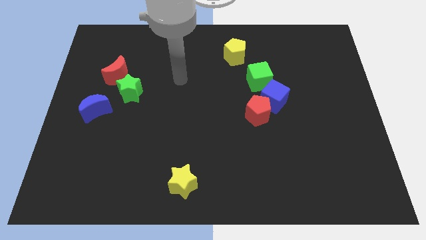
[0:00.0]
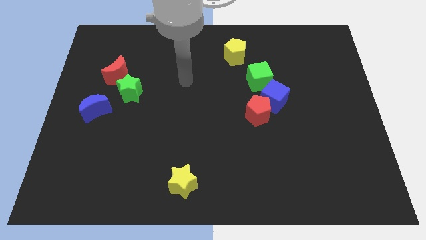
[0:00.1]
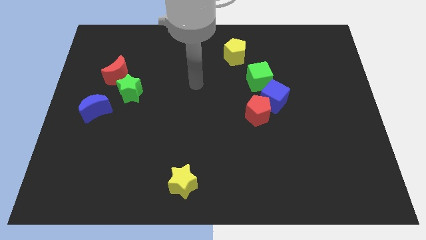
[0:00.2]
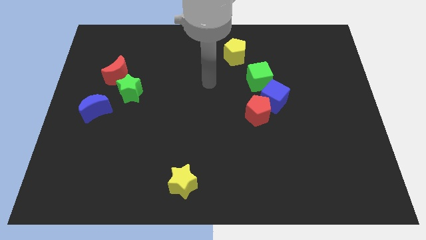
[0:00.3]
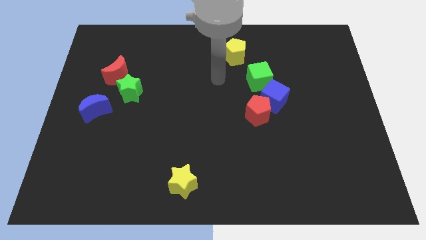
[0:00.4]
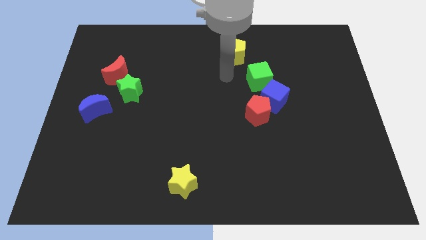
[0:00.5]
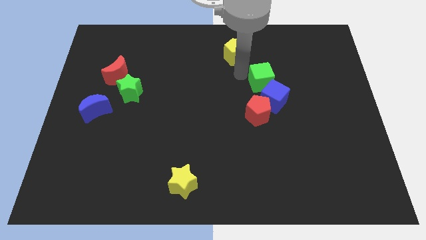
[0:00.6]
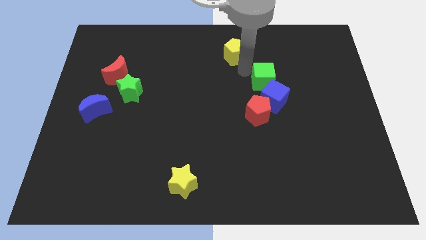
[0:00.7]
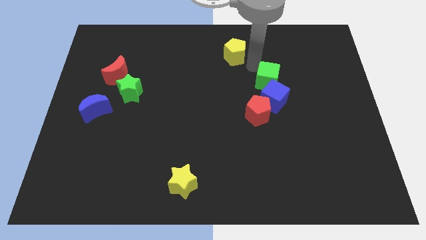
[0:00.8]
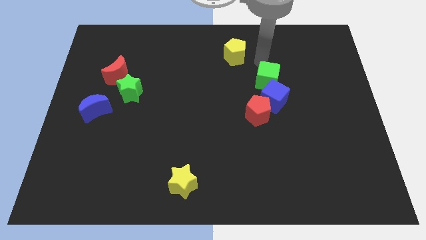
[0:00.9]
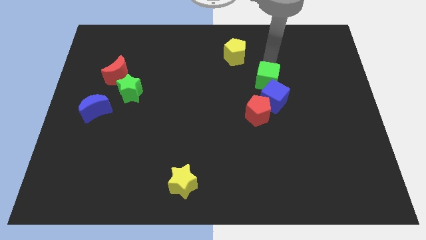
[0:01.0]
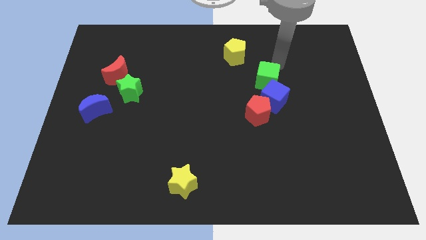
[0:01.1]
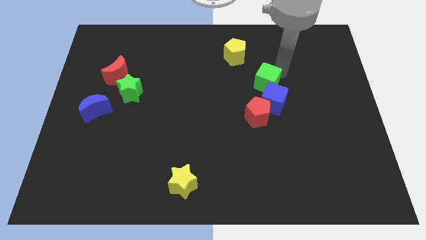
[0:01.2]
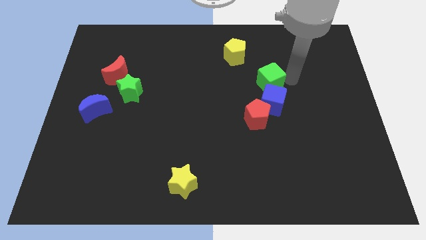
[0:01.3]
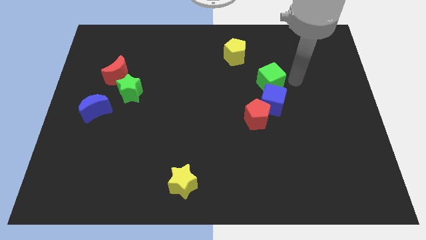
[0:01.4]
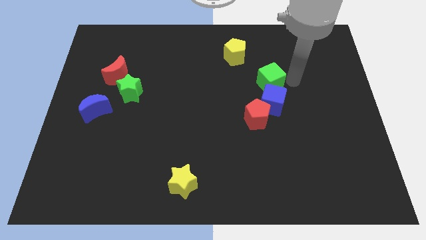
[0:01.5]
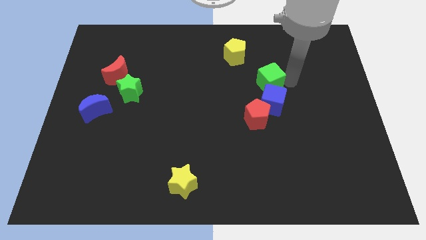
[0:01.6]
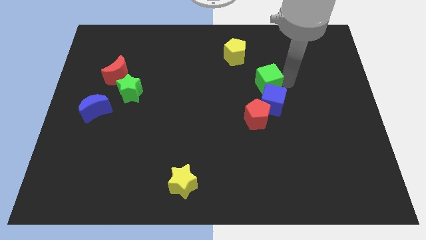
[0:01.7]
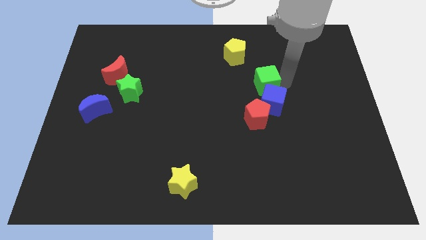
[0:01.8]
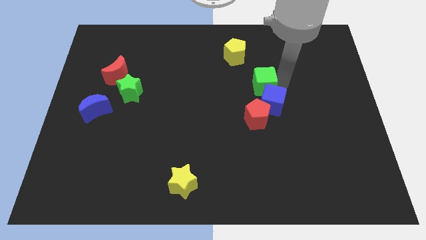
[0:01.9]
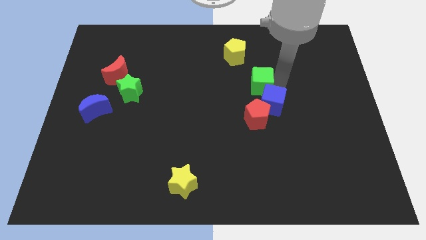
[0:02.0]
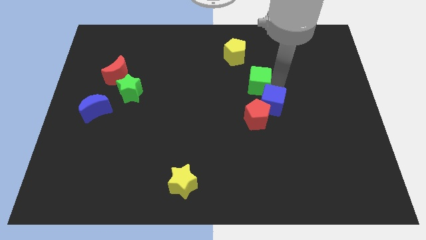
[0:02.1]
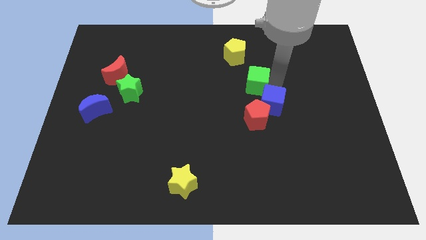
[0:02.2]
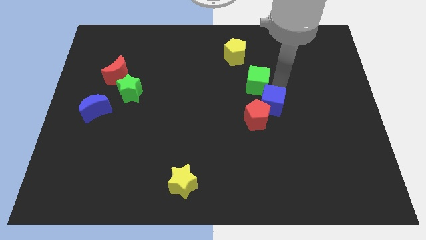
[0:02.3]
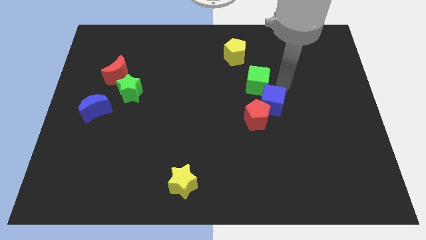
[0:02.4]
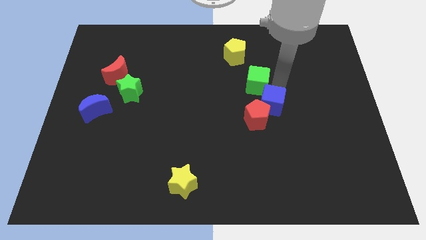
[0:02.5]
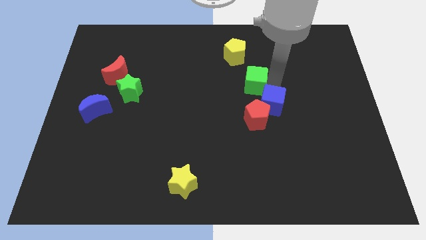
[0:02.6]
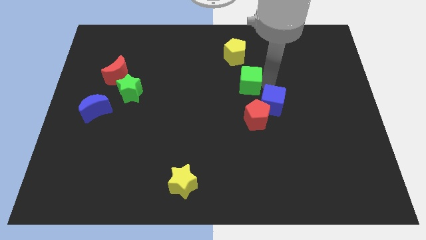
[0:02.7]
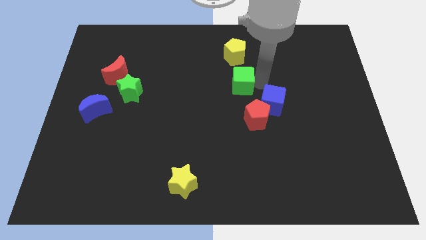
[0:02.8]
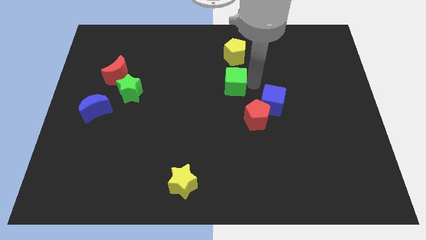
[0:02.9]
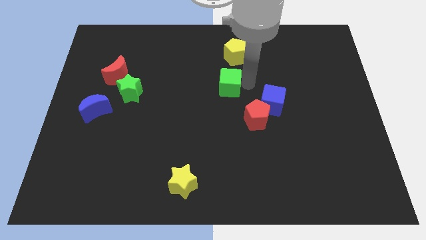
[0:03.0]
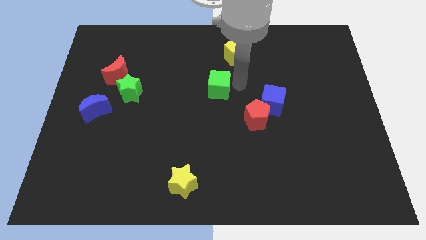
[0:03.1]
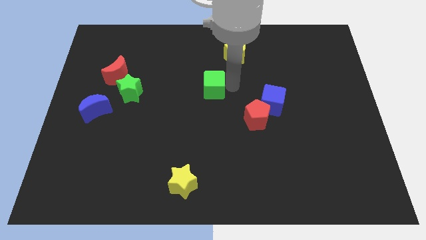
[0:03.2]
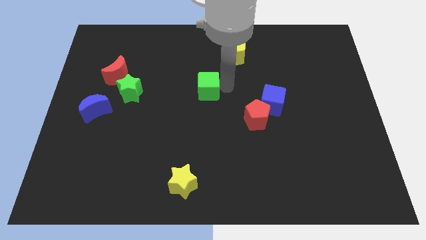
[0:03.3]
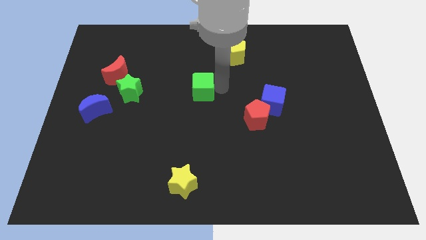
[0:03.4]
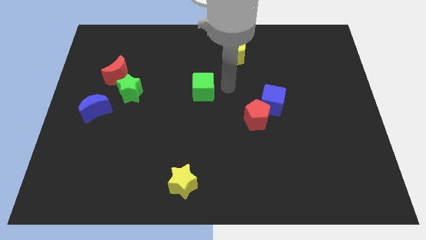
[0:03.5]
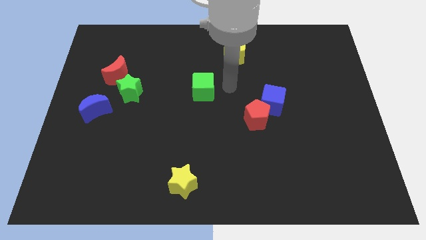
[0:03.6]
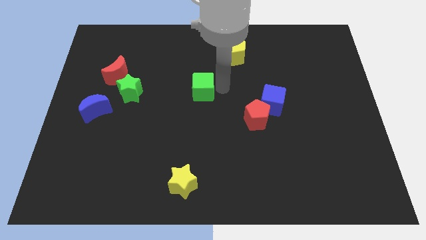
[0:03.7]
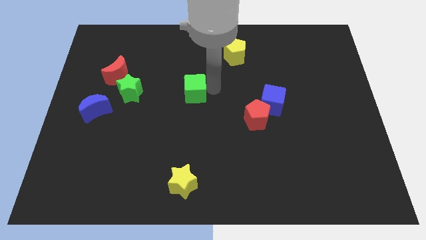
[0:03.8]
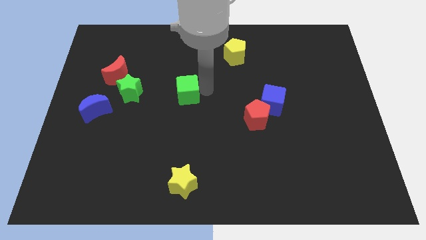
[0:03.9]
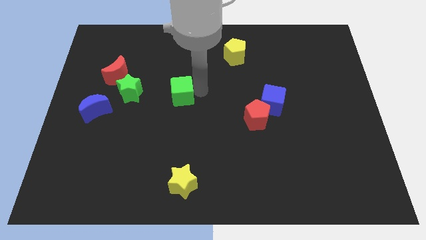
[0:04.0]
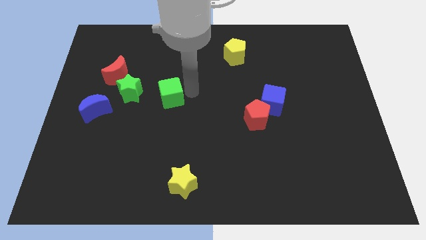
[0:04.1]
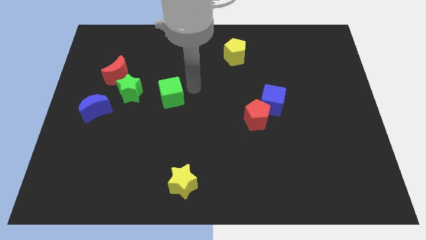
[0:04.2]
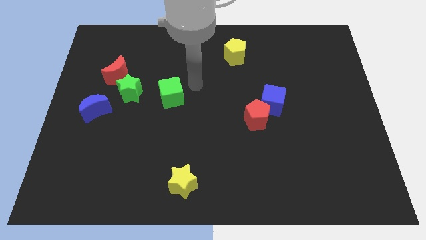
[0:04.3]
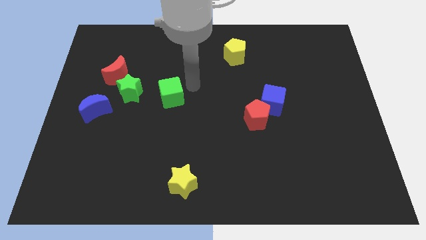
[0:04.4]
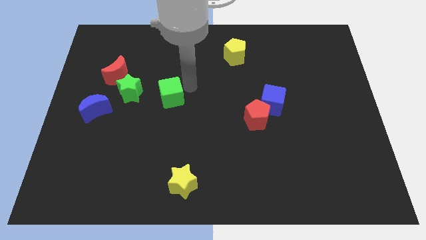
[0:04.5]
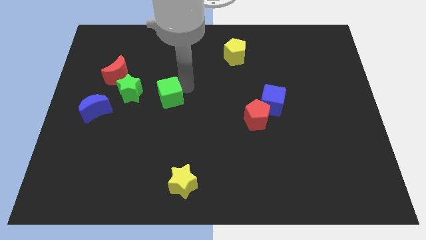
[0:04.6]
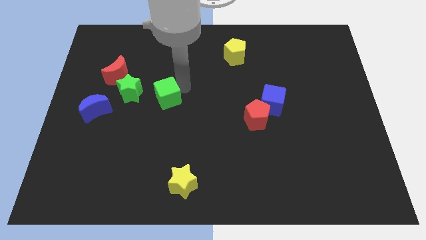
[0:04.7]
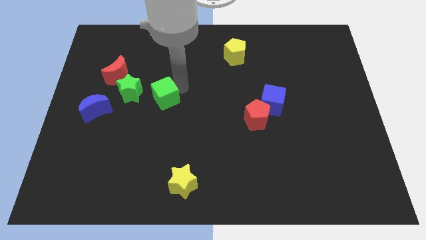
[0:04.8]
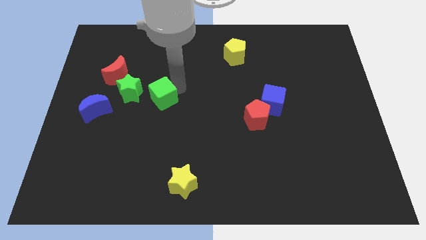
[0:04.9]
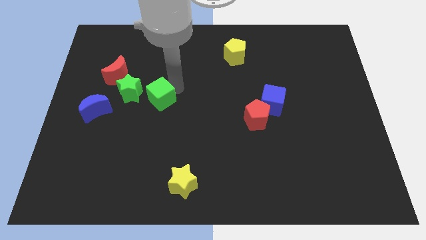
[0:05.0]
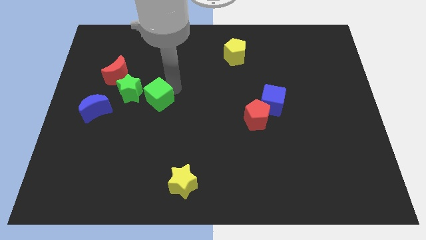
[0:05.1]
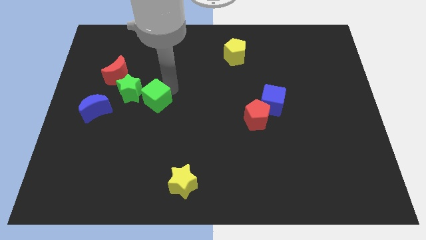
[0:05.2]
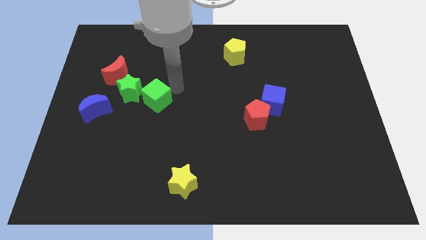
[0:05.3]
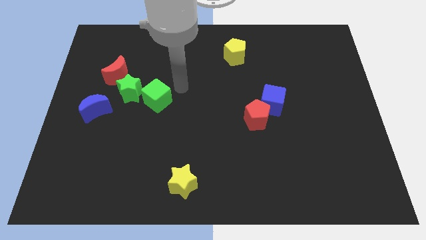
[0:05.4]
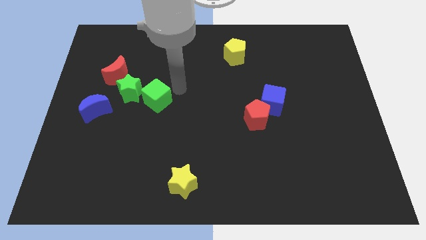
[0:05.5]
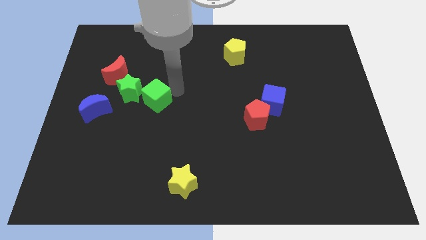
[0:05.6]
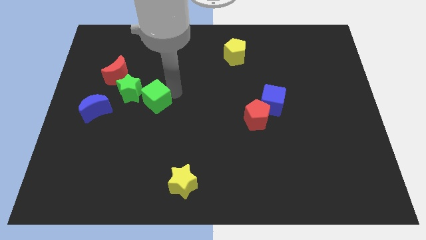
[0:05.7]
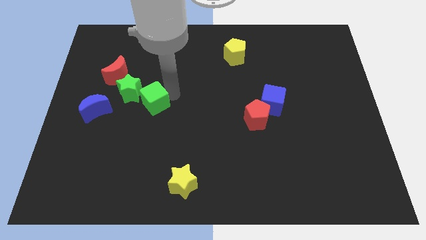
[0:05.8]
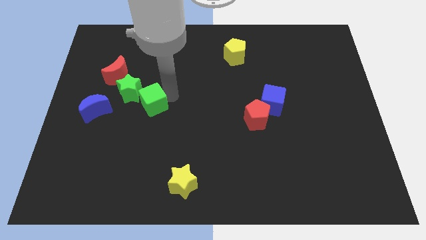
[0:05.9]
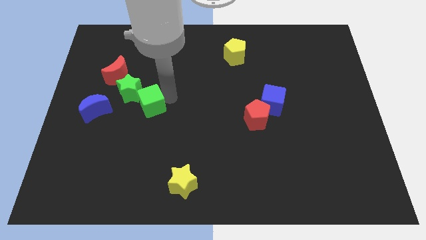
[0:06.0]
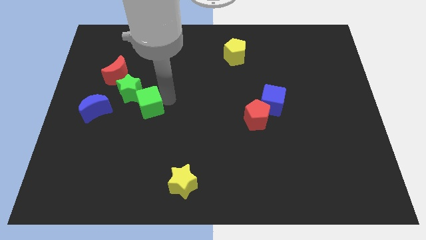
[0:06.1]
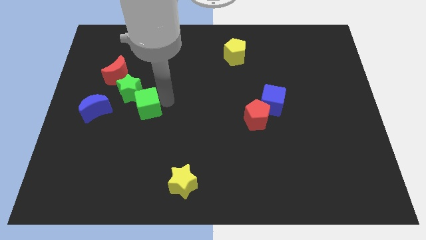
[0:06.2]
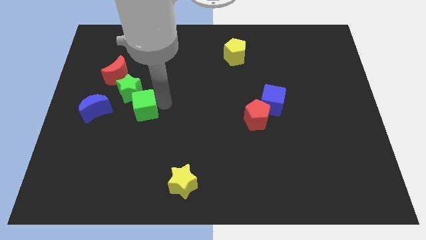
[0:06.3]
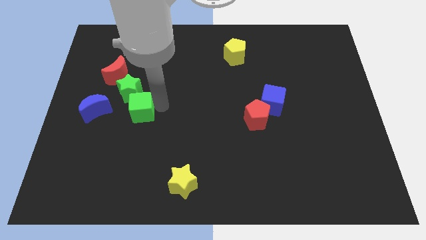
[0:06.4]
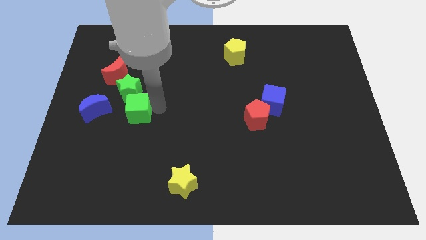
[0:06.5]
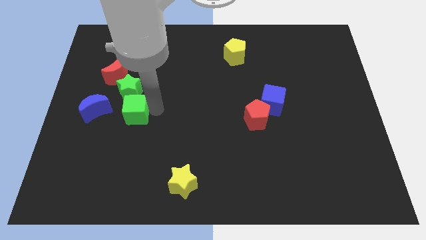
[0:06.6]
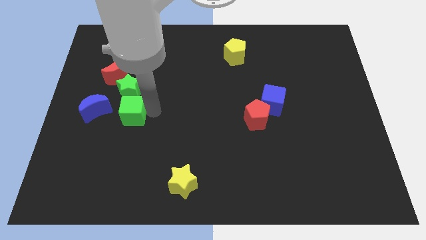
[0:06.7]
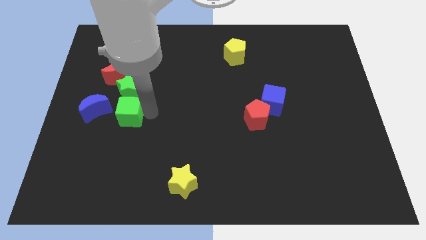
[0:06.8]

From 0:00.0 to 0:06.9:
move the green cube to the bottom side of the red moon
